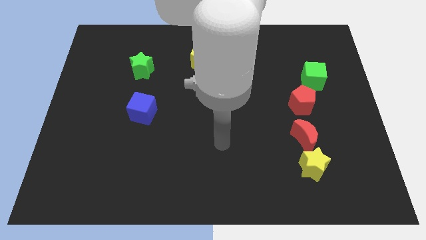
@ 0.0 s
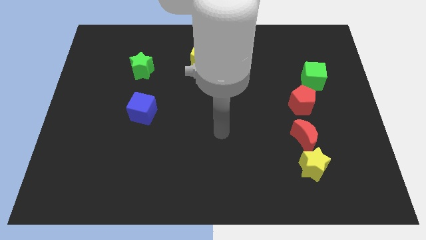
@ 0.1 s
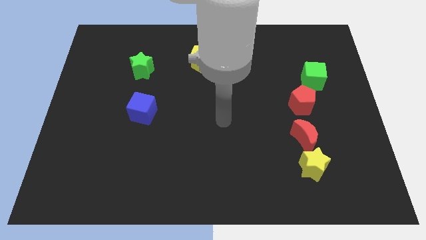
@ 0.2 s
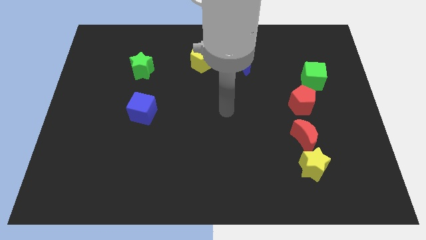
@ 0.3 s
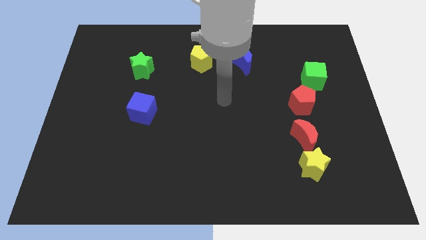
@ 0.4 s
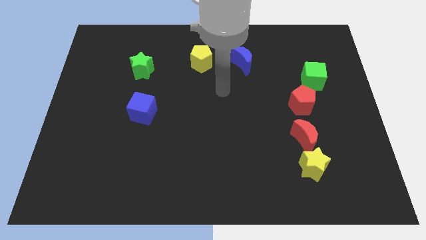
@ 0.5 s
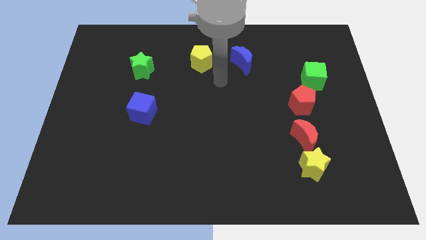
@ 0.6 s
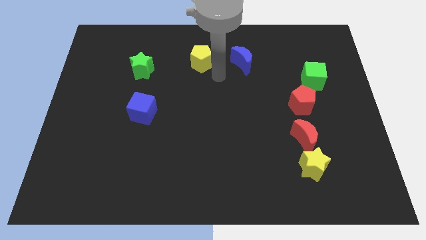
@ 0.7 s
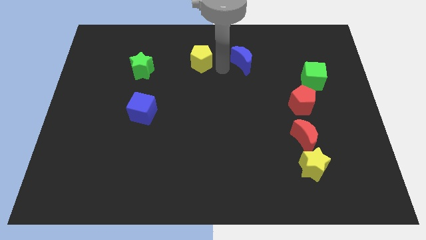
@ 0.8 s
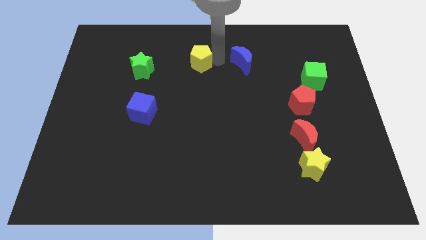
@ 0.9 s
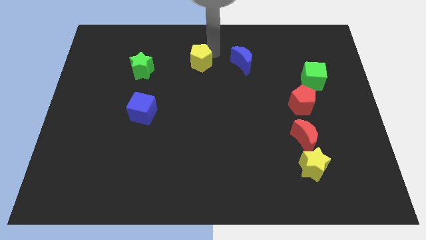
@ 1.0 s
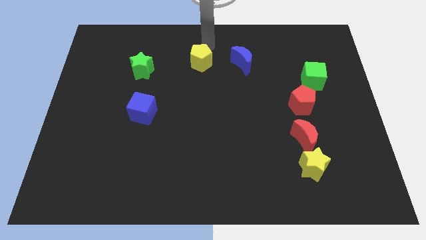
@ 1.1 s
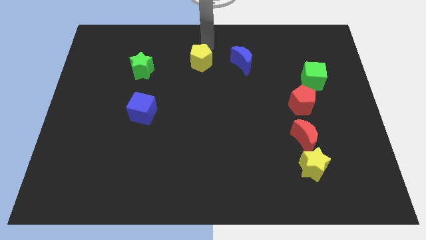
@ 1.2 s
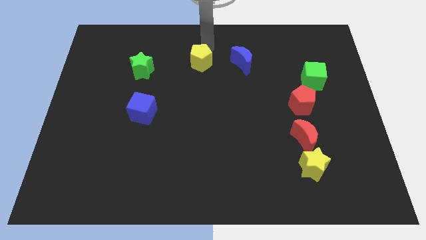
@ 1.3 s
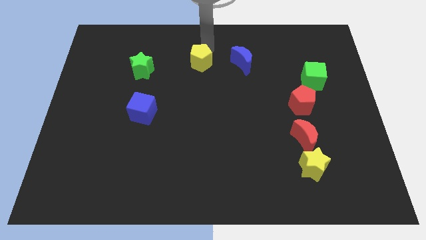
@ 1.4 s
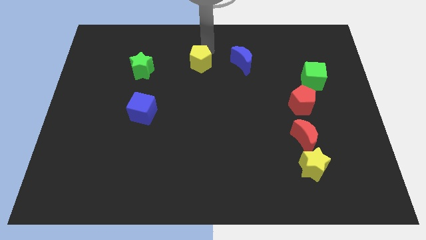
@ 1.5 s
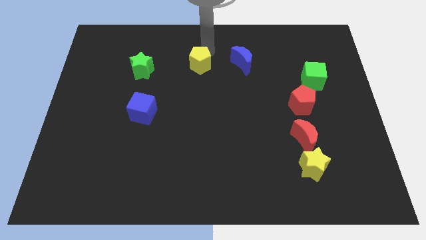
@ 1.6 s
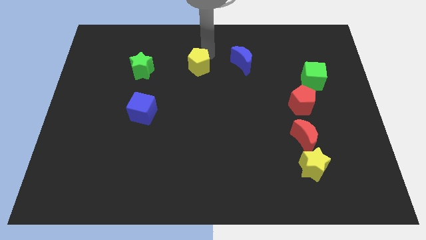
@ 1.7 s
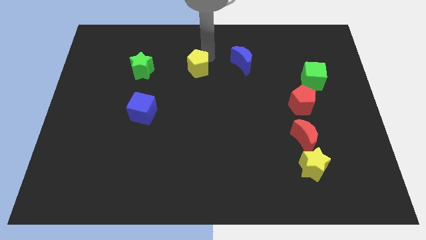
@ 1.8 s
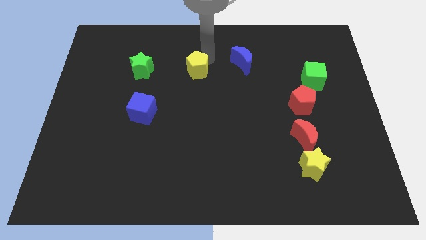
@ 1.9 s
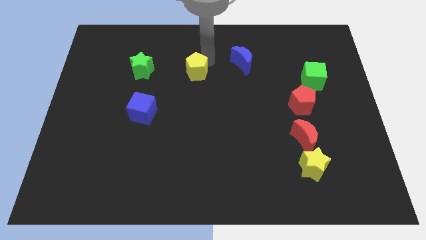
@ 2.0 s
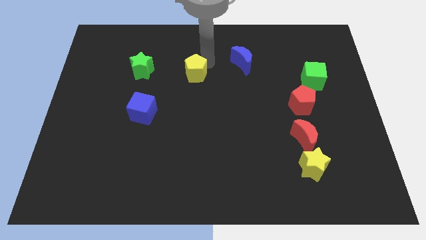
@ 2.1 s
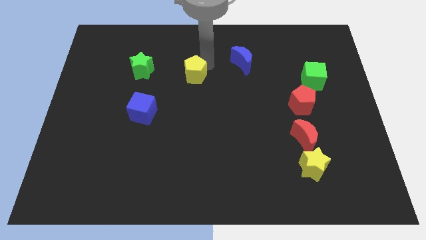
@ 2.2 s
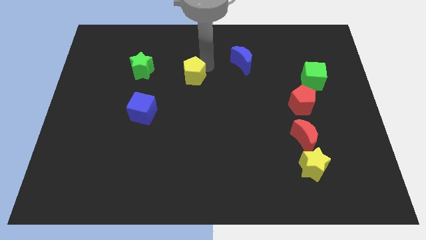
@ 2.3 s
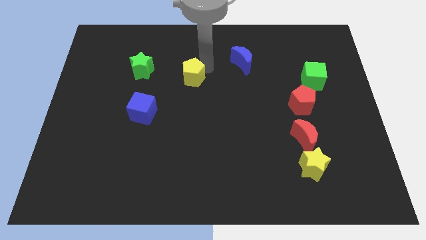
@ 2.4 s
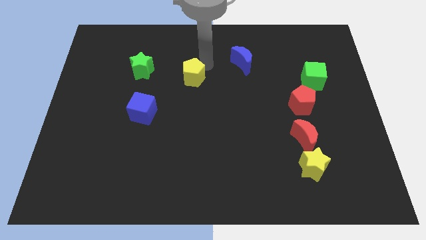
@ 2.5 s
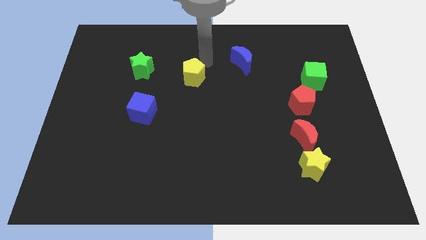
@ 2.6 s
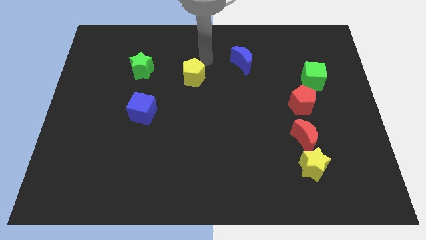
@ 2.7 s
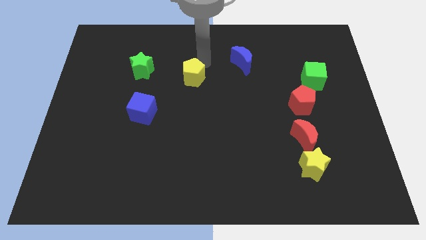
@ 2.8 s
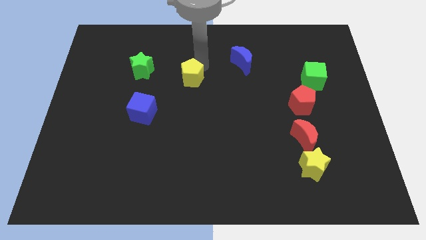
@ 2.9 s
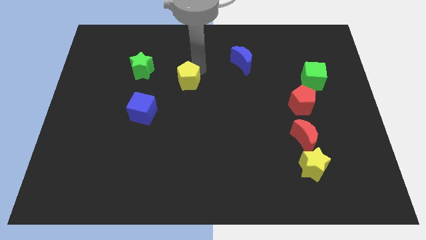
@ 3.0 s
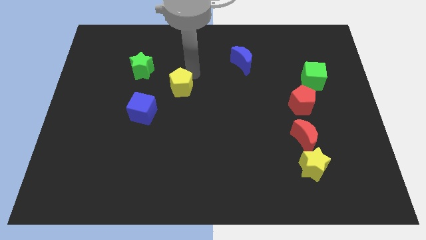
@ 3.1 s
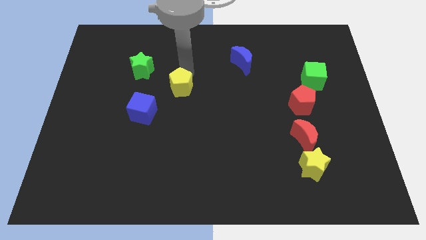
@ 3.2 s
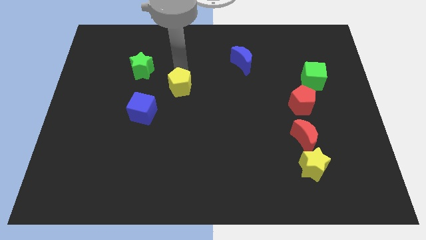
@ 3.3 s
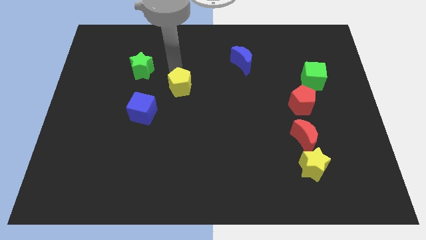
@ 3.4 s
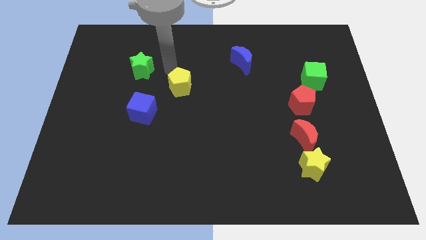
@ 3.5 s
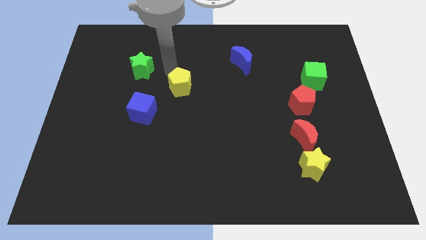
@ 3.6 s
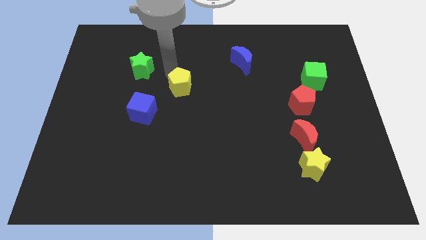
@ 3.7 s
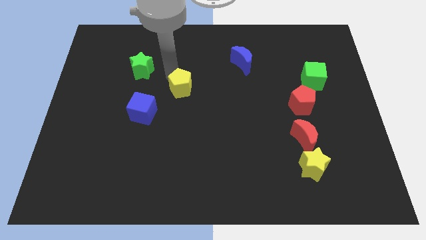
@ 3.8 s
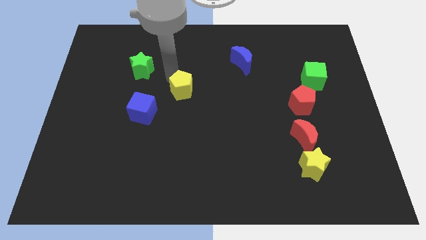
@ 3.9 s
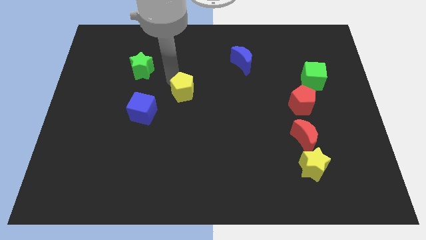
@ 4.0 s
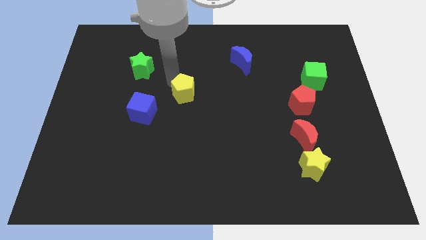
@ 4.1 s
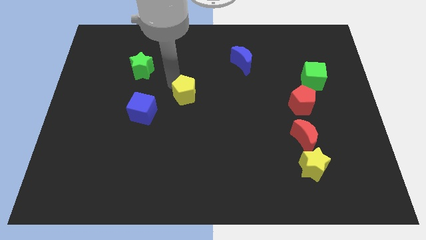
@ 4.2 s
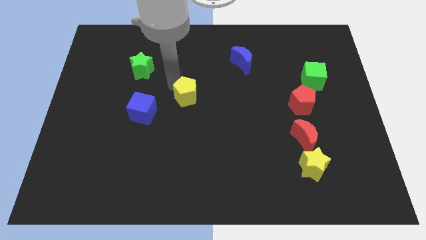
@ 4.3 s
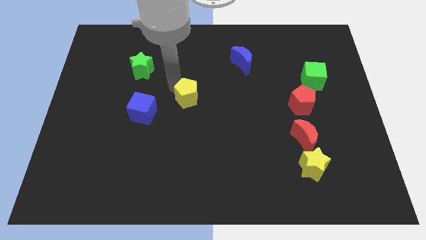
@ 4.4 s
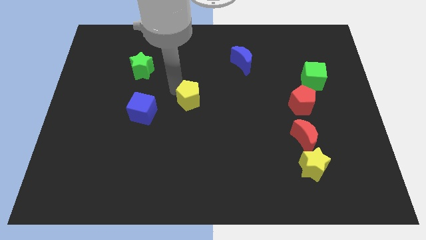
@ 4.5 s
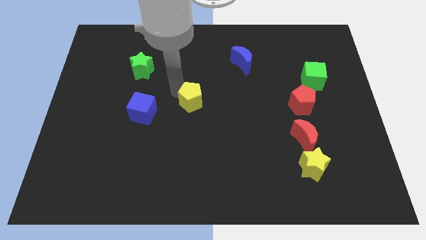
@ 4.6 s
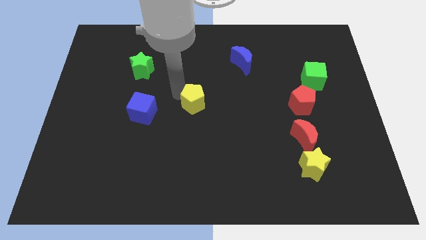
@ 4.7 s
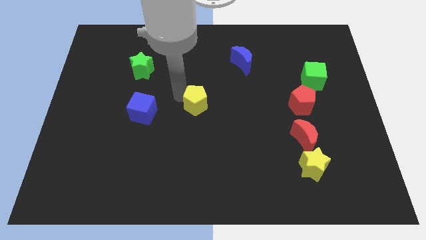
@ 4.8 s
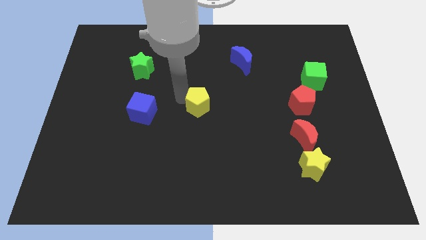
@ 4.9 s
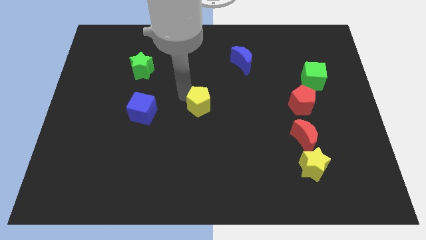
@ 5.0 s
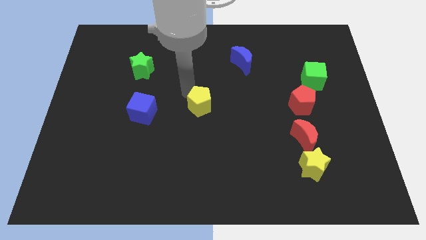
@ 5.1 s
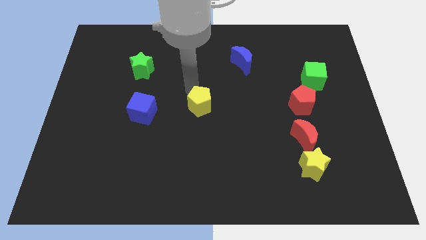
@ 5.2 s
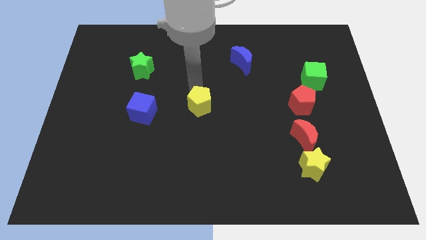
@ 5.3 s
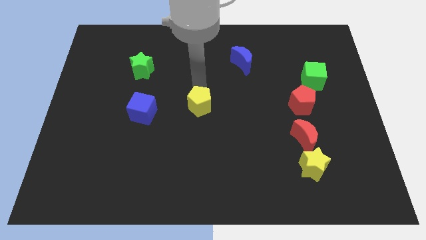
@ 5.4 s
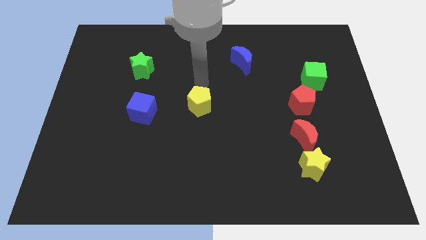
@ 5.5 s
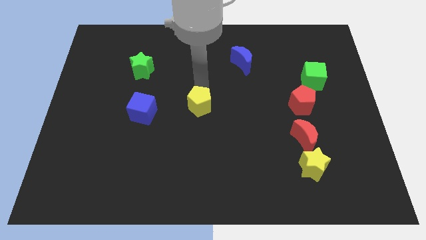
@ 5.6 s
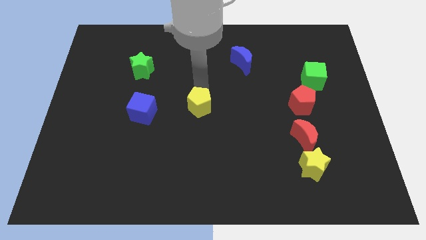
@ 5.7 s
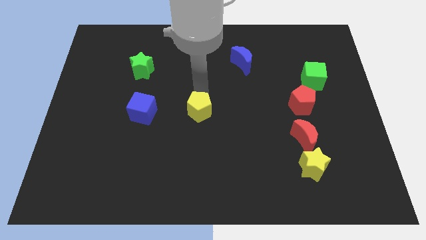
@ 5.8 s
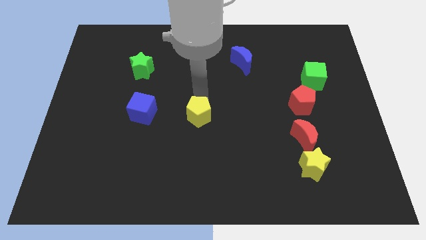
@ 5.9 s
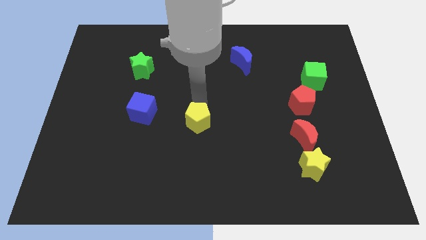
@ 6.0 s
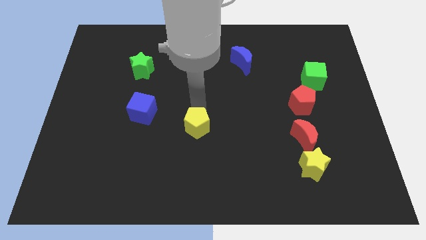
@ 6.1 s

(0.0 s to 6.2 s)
move the yellow pentagon down

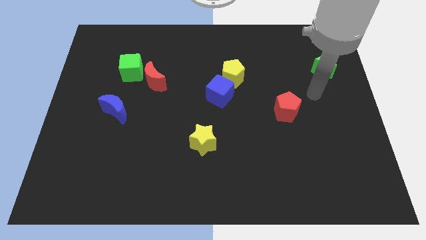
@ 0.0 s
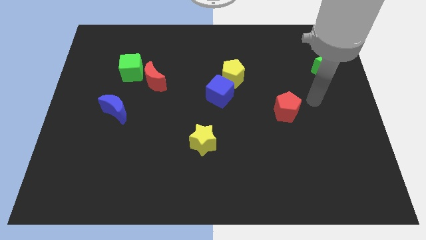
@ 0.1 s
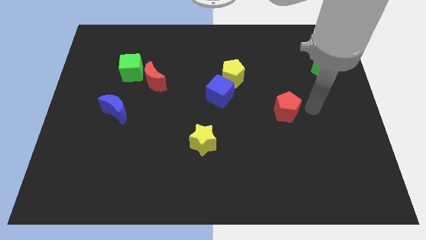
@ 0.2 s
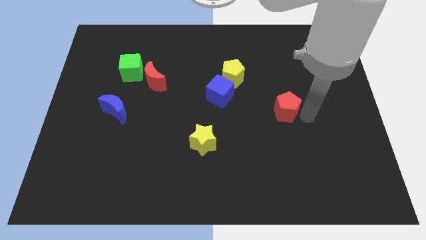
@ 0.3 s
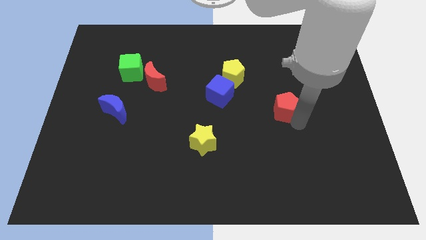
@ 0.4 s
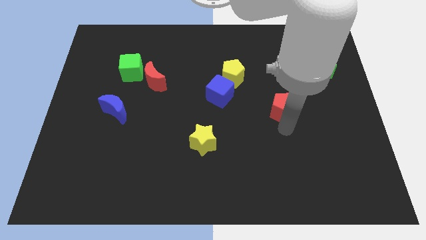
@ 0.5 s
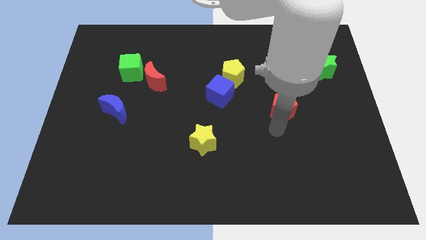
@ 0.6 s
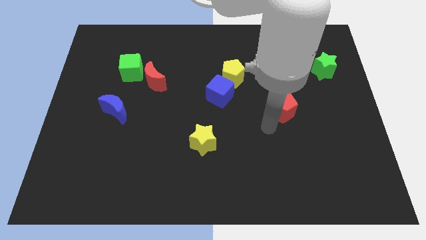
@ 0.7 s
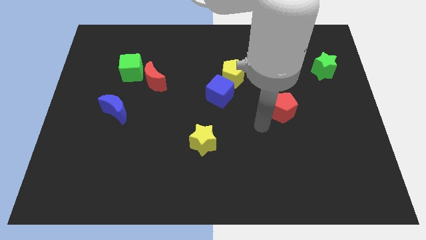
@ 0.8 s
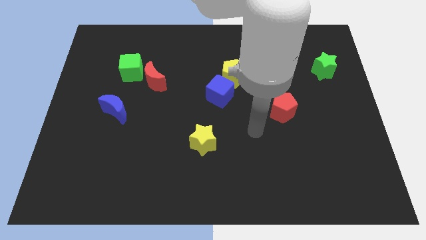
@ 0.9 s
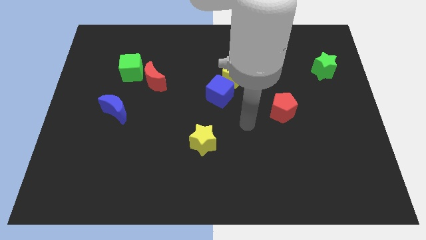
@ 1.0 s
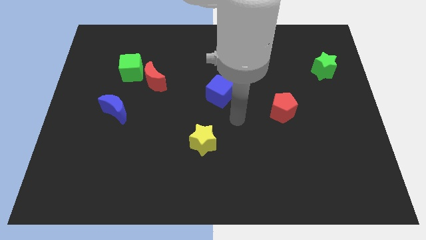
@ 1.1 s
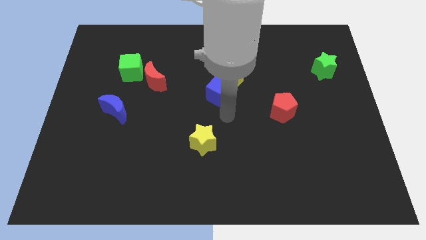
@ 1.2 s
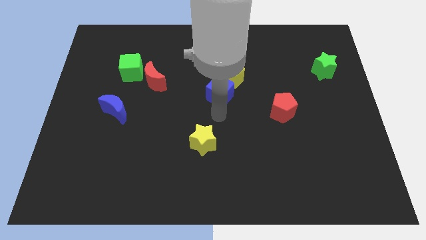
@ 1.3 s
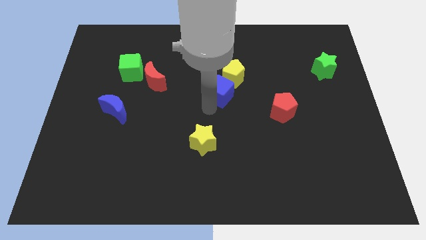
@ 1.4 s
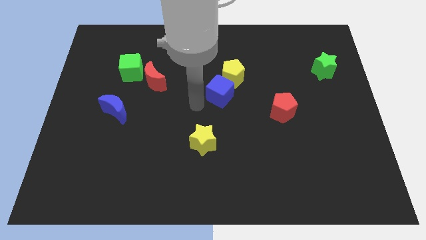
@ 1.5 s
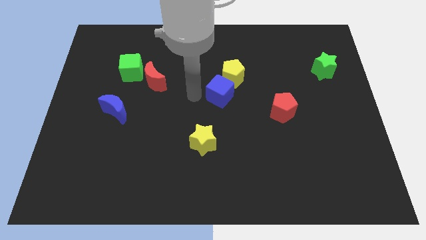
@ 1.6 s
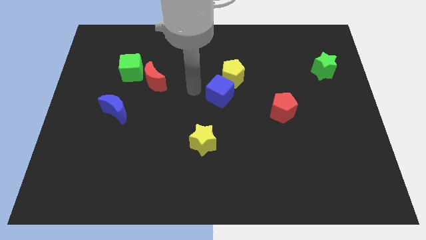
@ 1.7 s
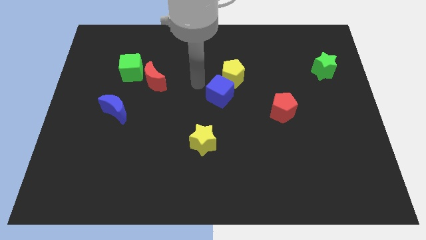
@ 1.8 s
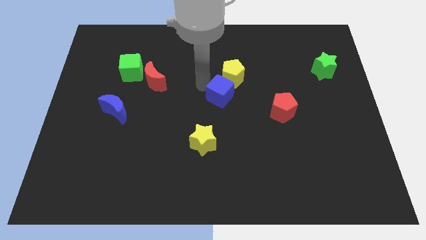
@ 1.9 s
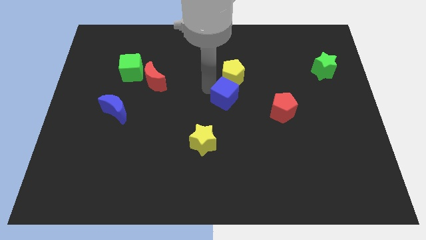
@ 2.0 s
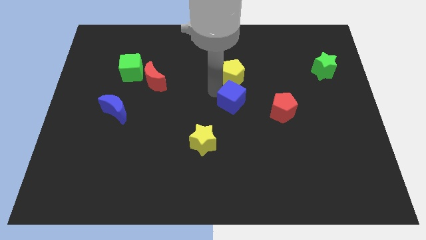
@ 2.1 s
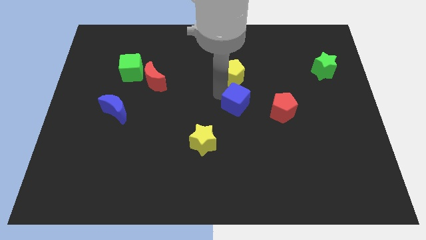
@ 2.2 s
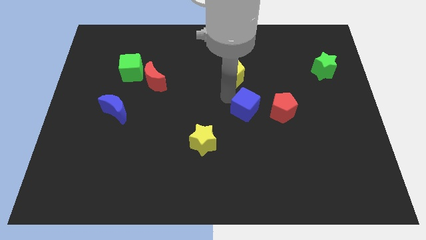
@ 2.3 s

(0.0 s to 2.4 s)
move the blue cube slightly diagonally downwards and right
